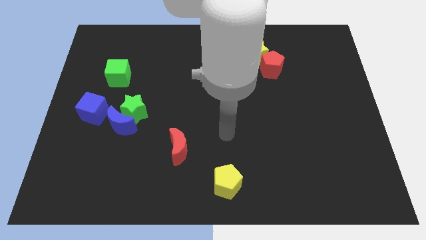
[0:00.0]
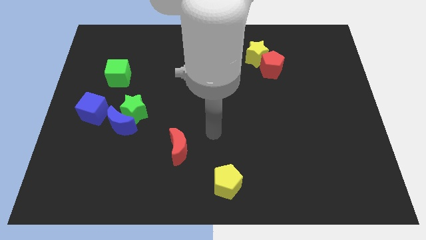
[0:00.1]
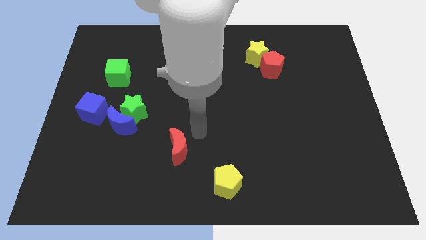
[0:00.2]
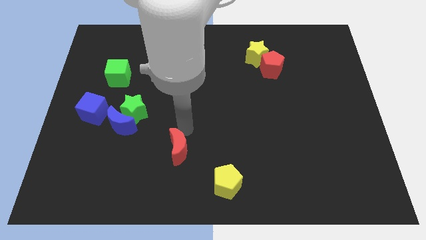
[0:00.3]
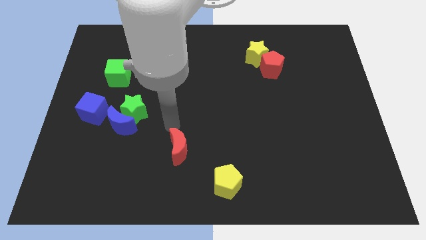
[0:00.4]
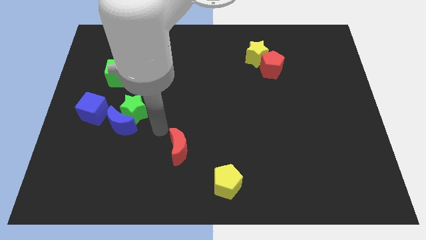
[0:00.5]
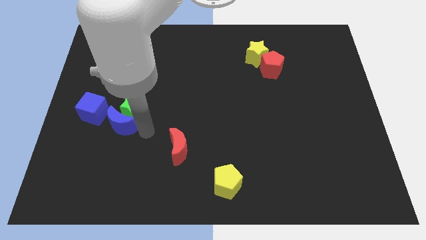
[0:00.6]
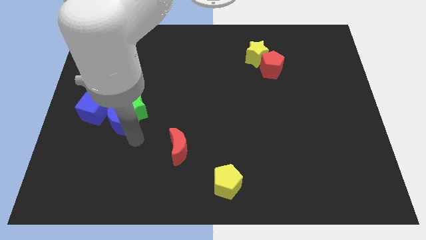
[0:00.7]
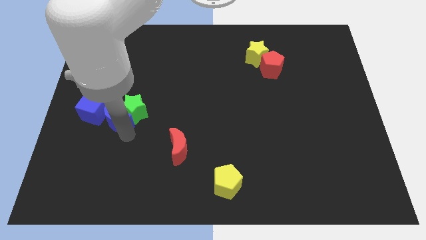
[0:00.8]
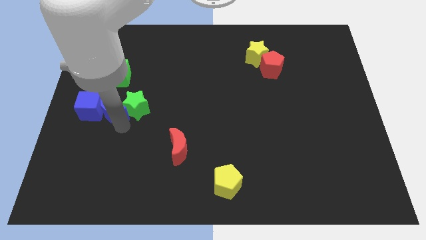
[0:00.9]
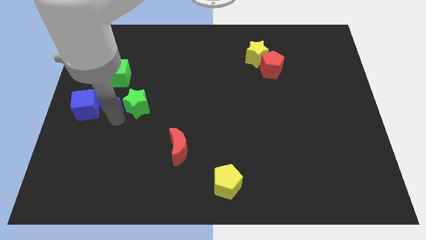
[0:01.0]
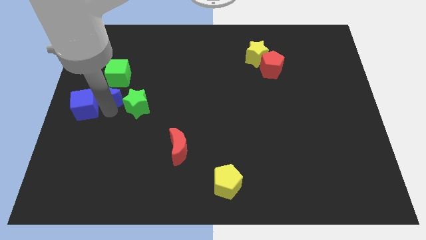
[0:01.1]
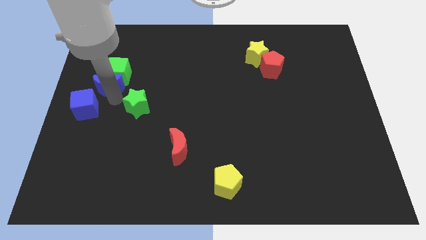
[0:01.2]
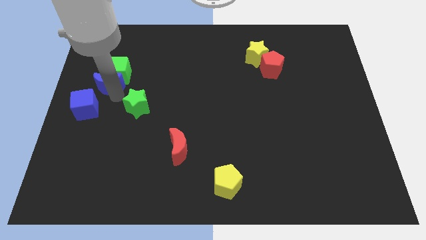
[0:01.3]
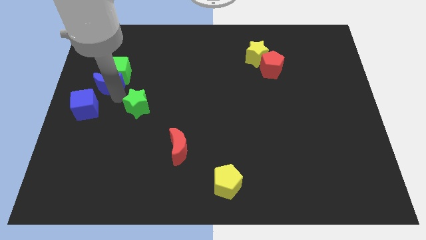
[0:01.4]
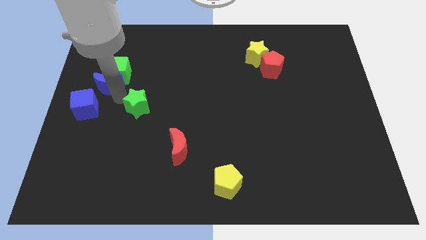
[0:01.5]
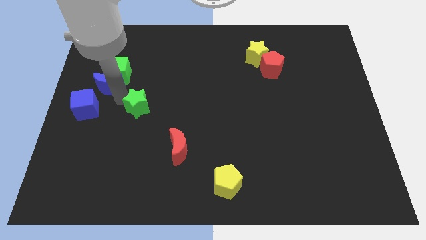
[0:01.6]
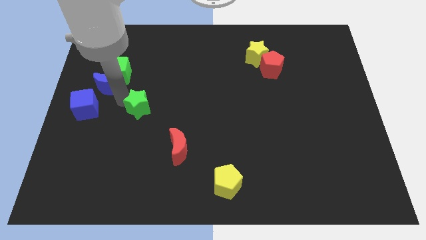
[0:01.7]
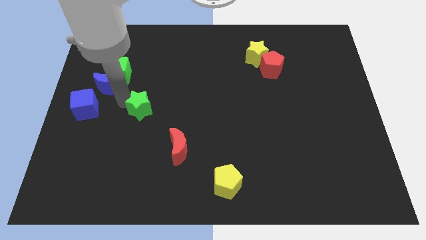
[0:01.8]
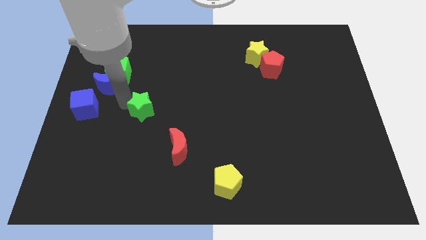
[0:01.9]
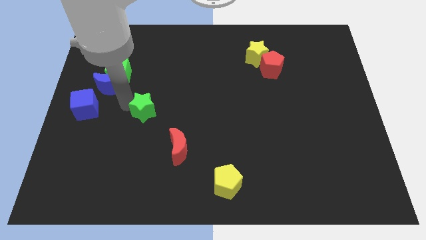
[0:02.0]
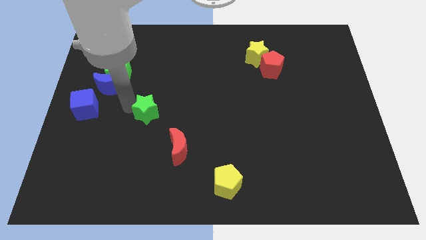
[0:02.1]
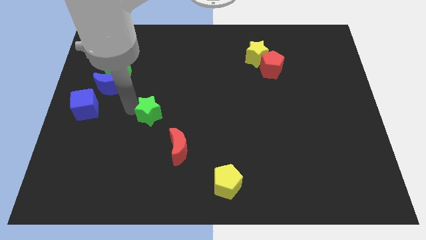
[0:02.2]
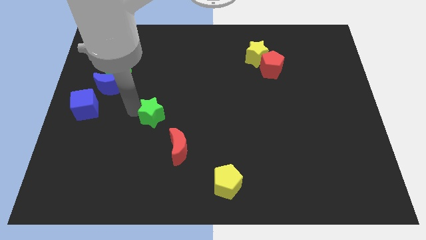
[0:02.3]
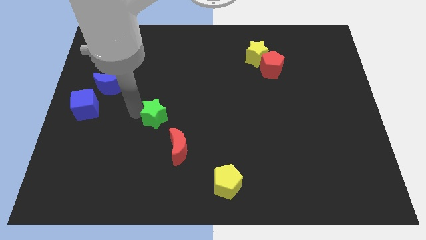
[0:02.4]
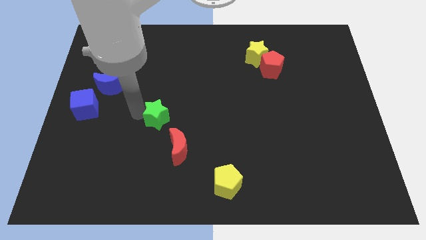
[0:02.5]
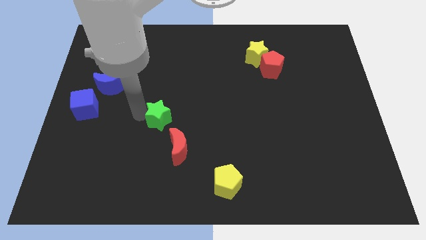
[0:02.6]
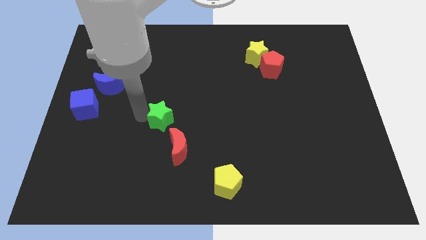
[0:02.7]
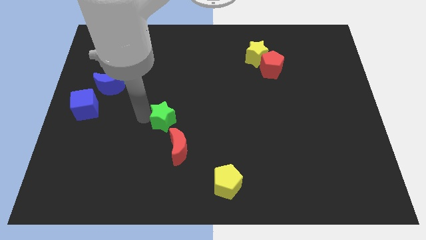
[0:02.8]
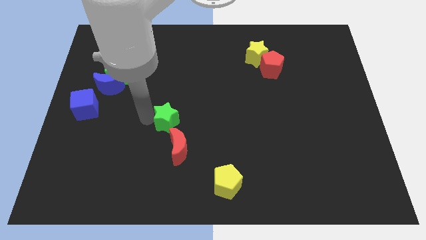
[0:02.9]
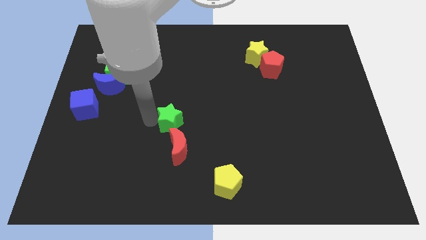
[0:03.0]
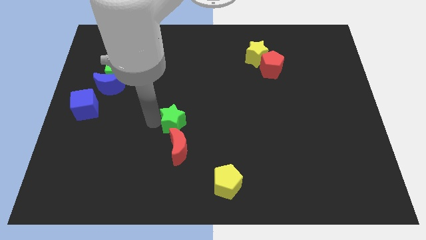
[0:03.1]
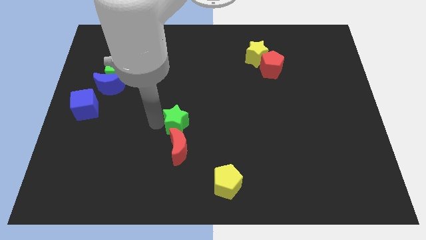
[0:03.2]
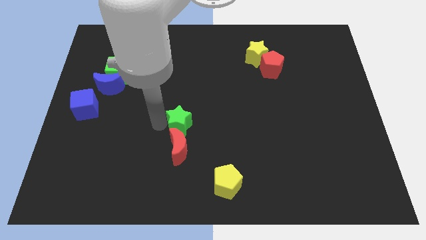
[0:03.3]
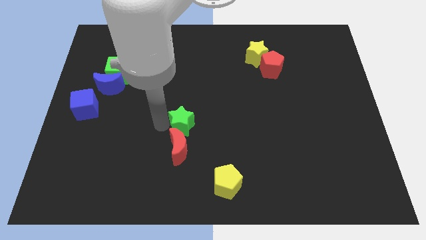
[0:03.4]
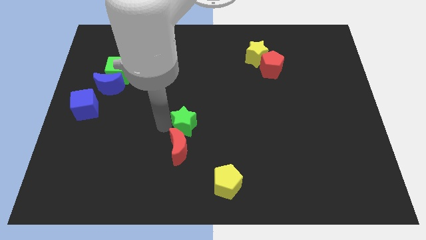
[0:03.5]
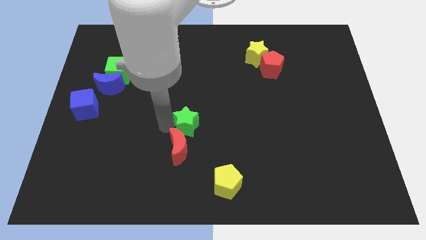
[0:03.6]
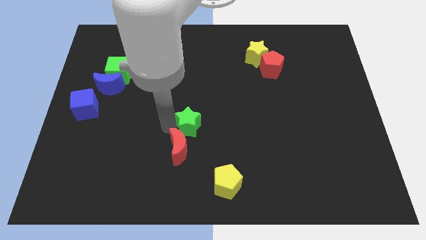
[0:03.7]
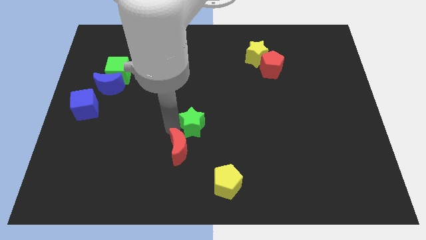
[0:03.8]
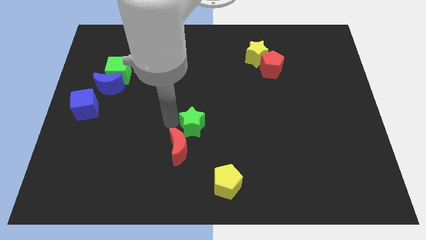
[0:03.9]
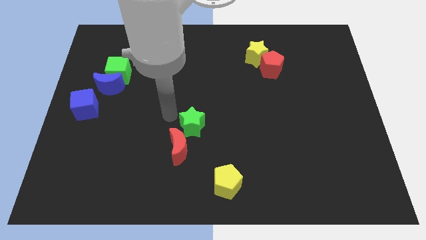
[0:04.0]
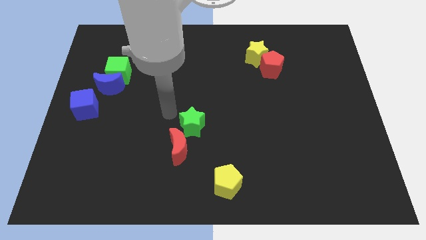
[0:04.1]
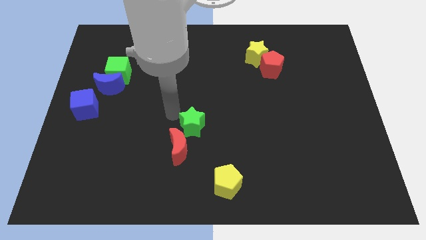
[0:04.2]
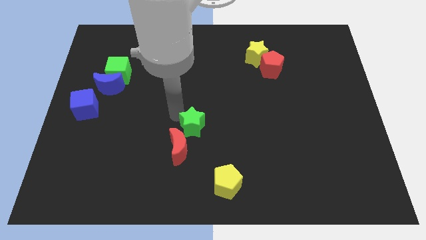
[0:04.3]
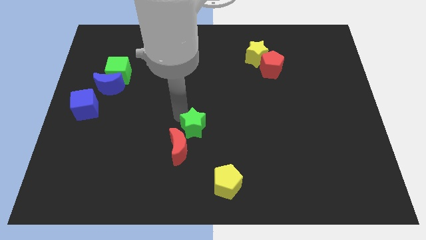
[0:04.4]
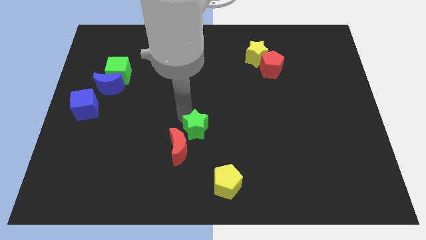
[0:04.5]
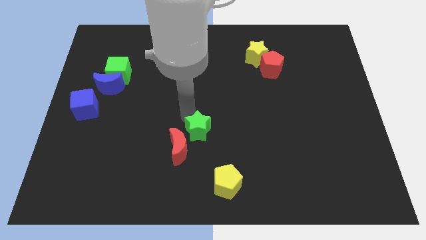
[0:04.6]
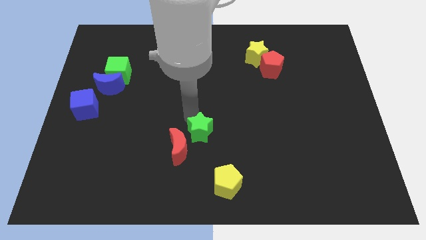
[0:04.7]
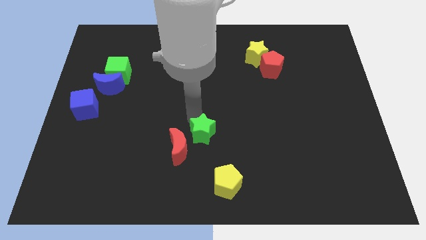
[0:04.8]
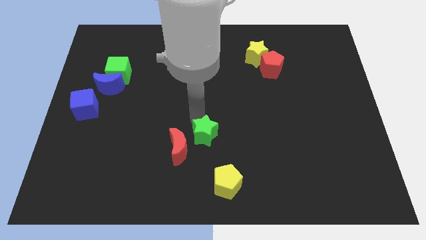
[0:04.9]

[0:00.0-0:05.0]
slide the green star above the yellow pentagon

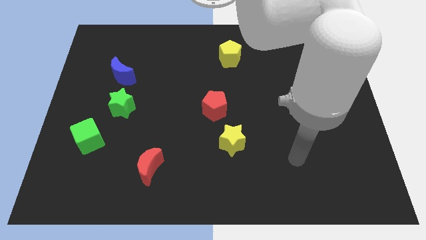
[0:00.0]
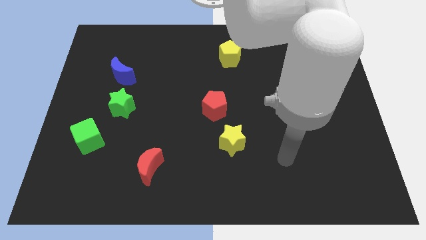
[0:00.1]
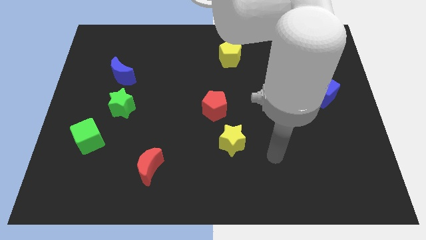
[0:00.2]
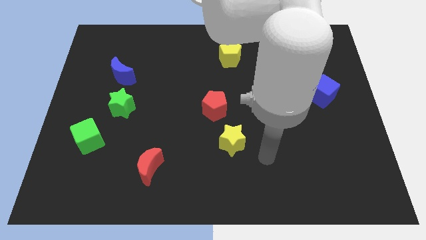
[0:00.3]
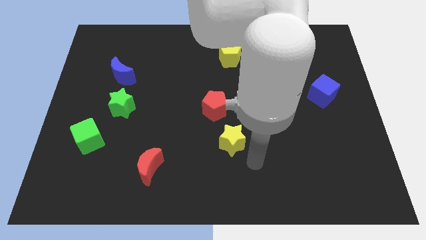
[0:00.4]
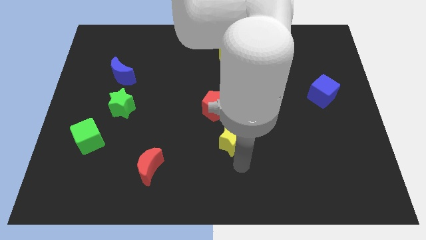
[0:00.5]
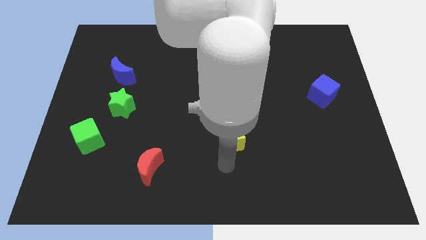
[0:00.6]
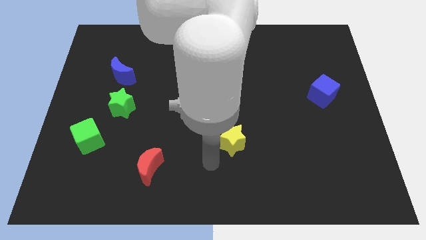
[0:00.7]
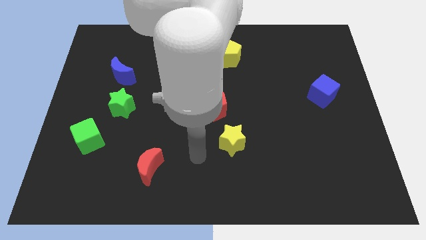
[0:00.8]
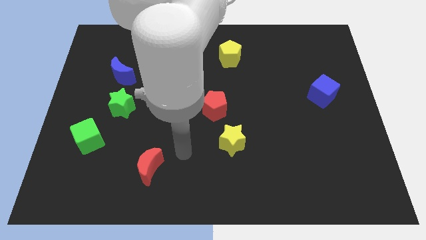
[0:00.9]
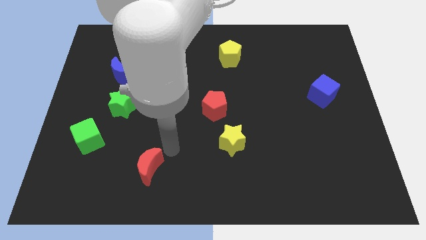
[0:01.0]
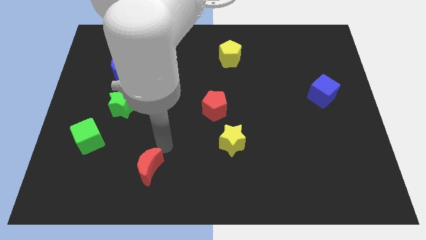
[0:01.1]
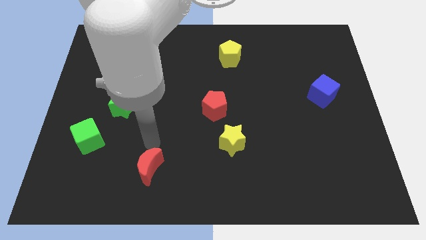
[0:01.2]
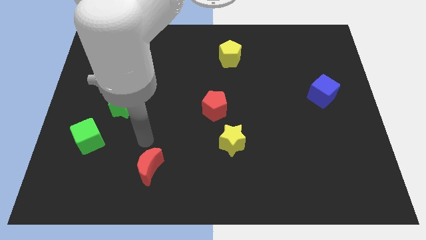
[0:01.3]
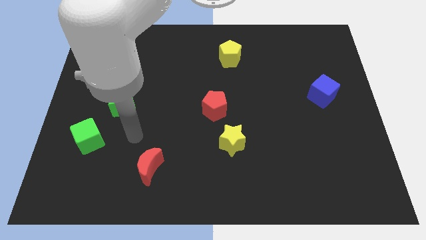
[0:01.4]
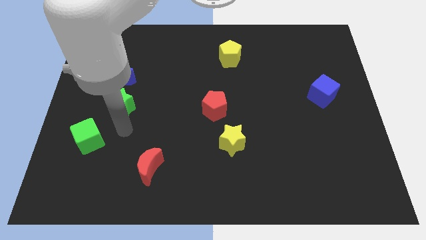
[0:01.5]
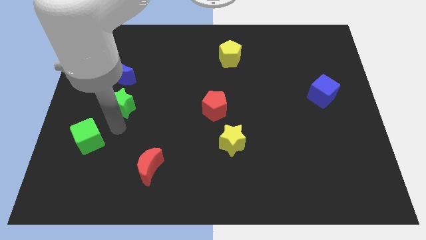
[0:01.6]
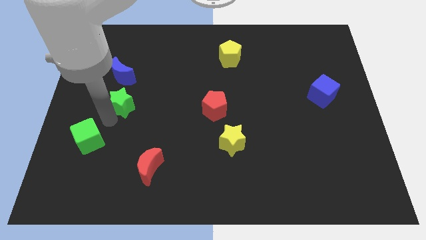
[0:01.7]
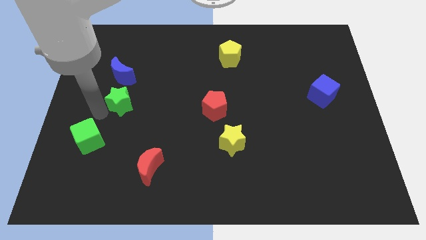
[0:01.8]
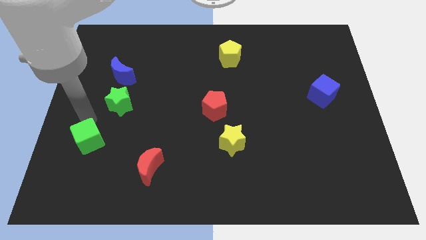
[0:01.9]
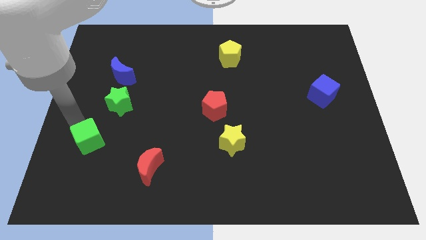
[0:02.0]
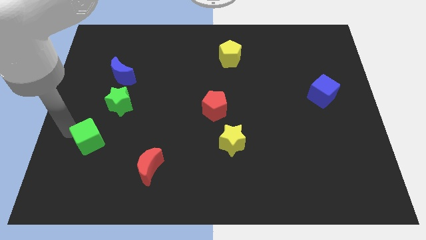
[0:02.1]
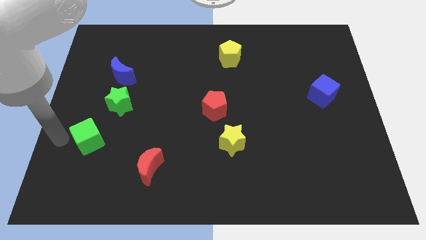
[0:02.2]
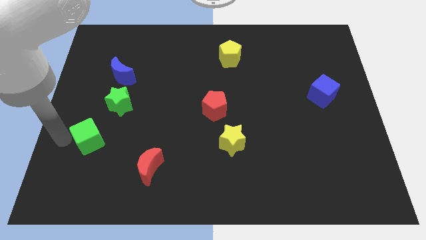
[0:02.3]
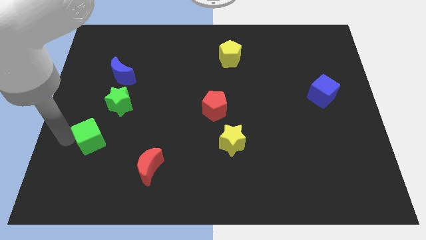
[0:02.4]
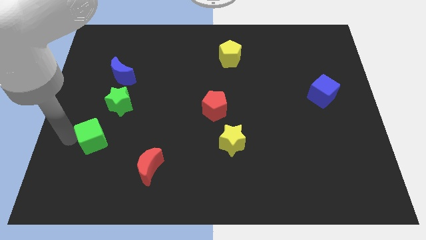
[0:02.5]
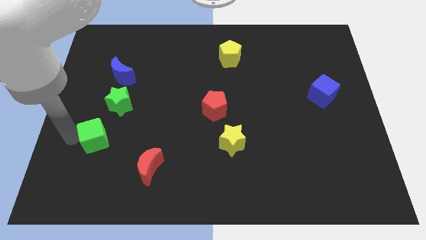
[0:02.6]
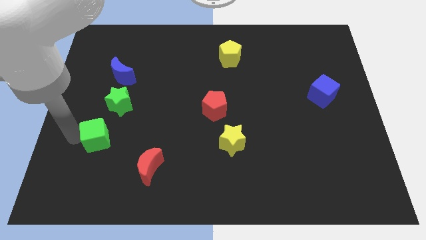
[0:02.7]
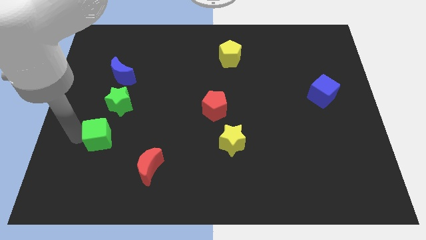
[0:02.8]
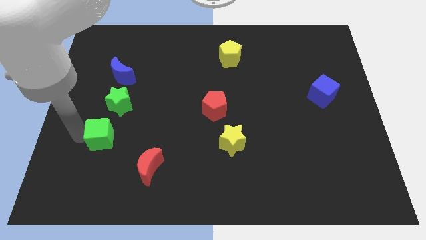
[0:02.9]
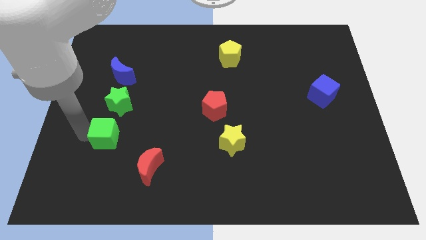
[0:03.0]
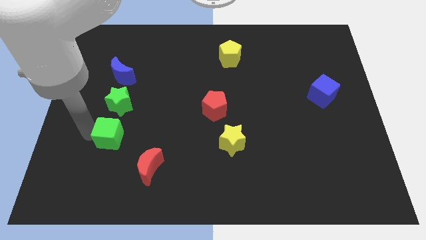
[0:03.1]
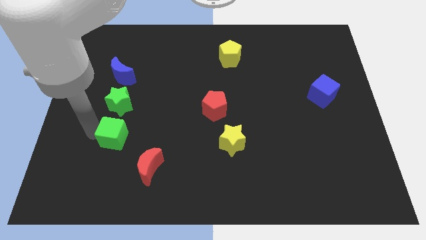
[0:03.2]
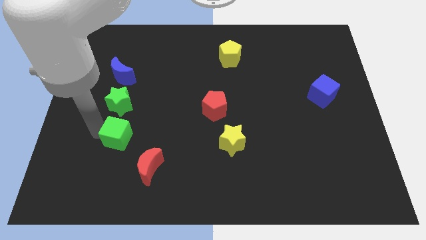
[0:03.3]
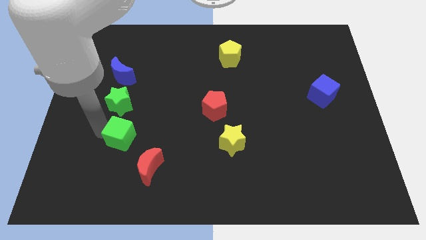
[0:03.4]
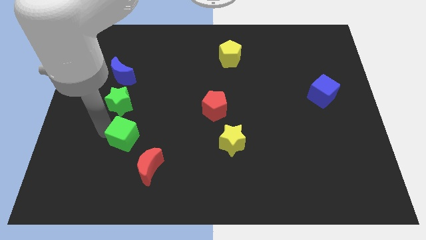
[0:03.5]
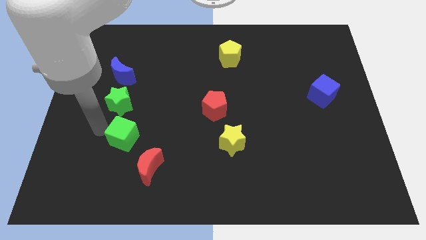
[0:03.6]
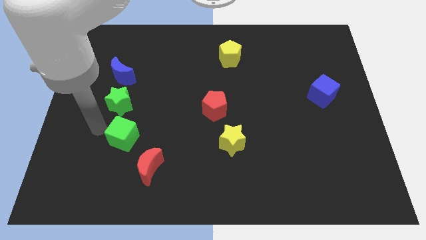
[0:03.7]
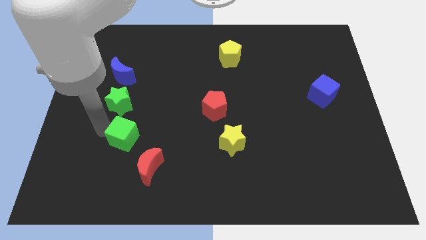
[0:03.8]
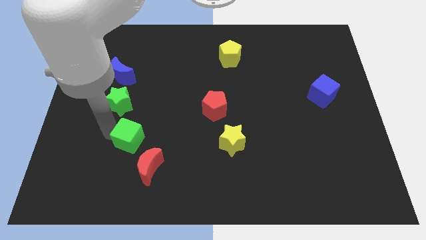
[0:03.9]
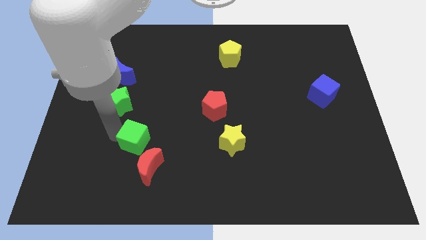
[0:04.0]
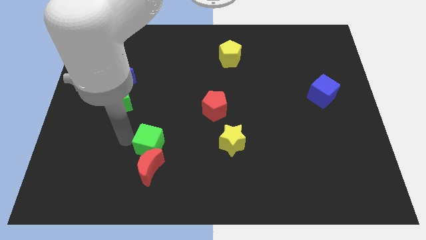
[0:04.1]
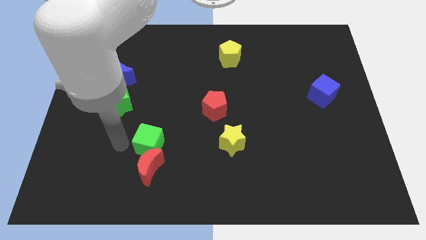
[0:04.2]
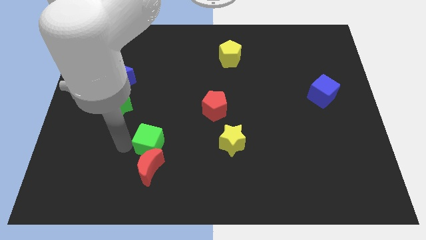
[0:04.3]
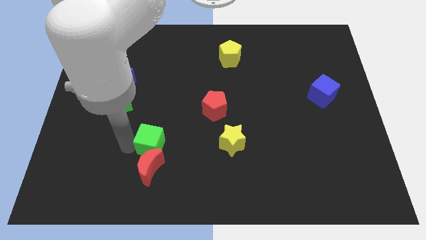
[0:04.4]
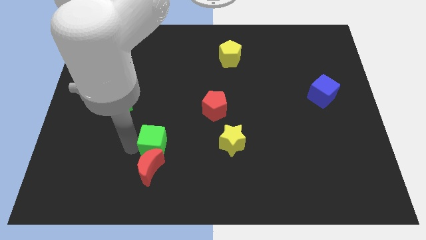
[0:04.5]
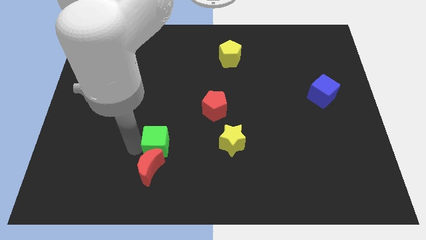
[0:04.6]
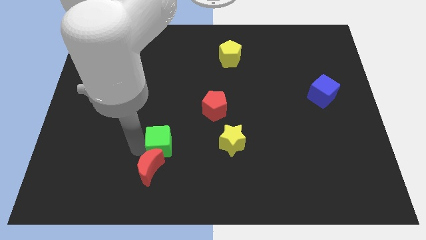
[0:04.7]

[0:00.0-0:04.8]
push the green cube just left of the yellow star
